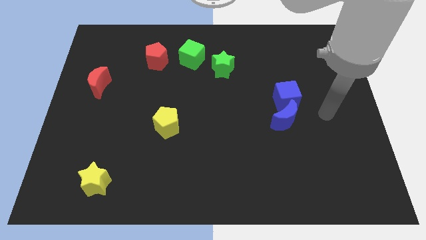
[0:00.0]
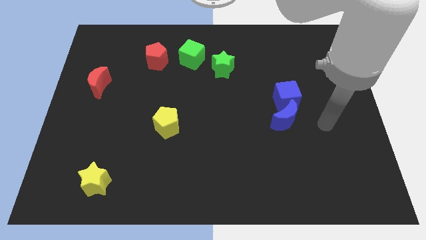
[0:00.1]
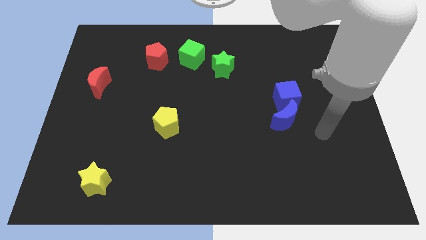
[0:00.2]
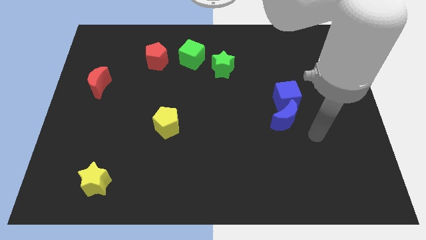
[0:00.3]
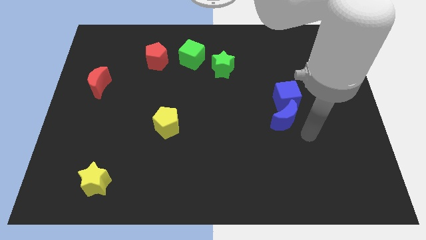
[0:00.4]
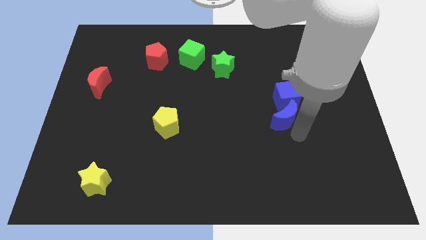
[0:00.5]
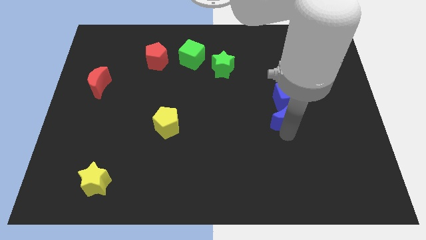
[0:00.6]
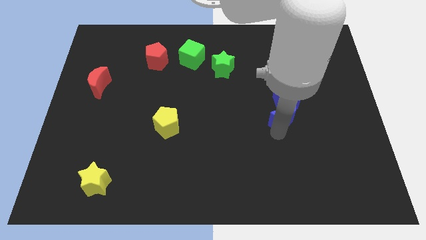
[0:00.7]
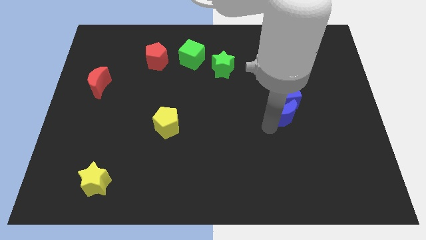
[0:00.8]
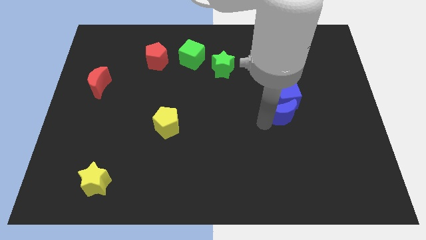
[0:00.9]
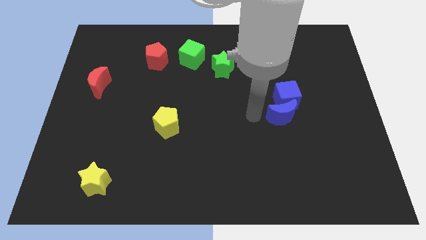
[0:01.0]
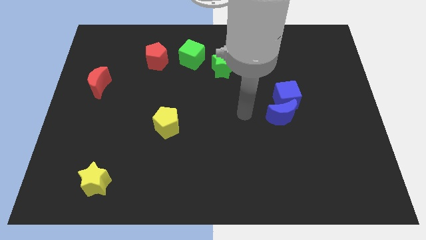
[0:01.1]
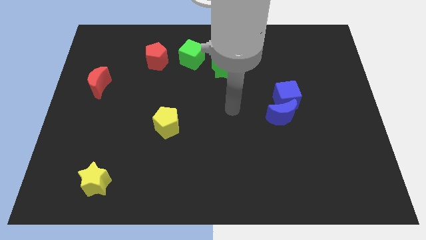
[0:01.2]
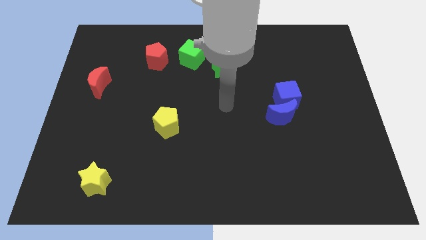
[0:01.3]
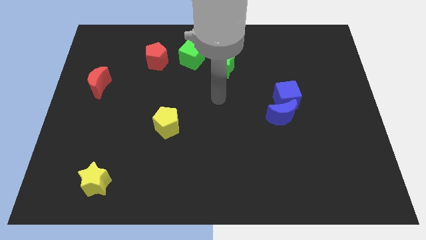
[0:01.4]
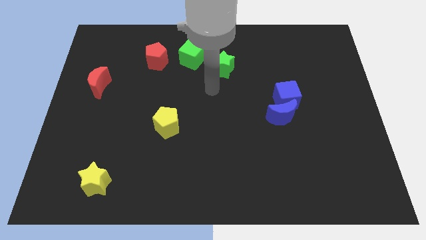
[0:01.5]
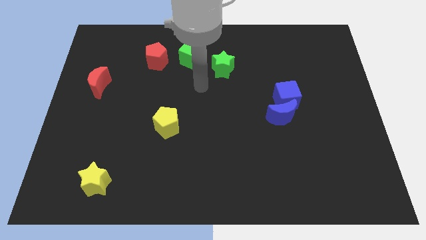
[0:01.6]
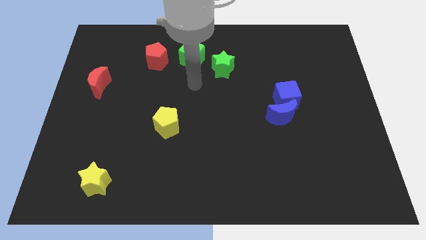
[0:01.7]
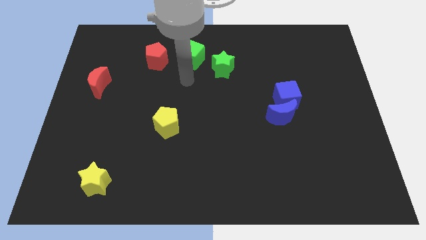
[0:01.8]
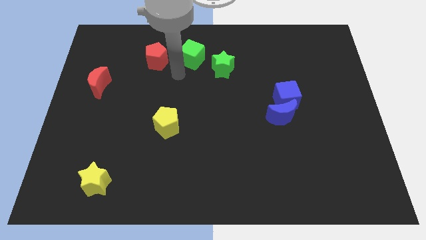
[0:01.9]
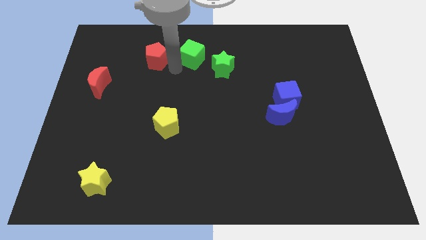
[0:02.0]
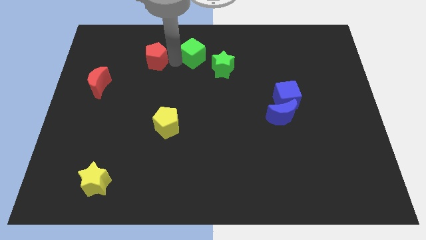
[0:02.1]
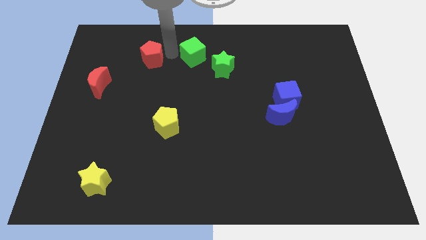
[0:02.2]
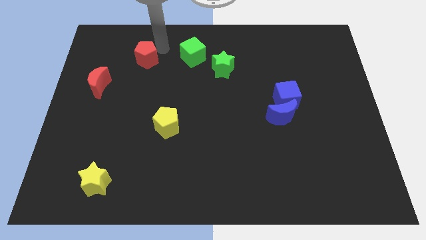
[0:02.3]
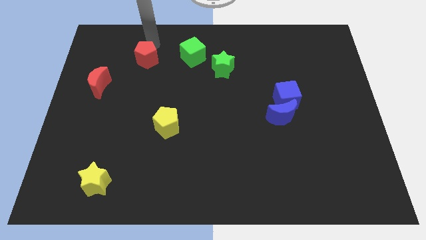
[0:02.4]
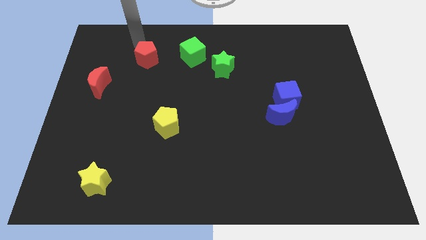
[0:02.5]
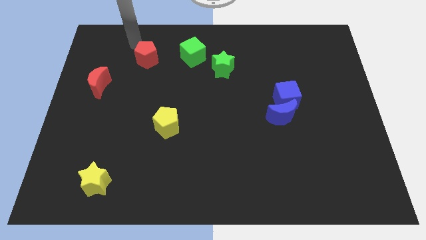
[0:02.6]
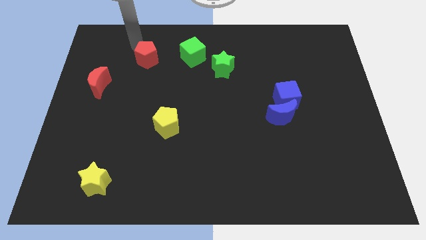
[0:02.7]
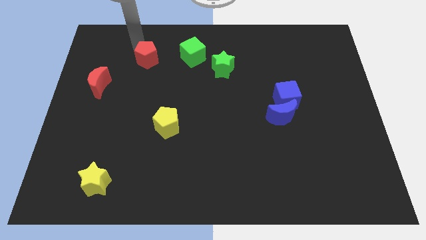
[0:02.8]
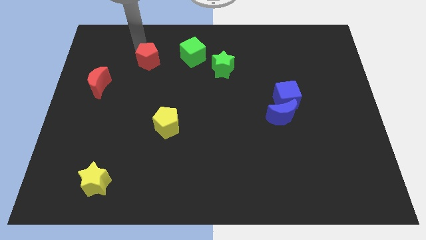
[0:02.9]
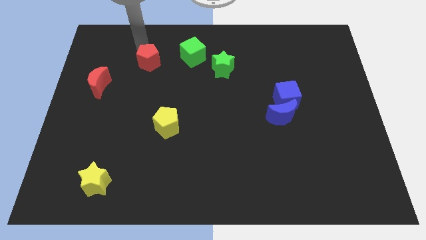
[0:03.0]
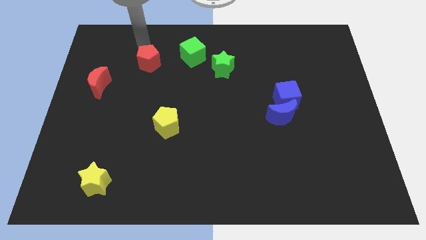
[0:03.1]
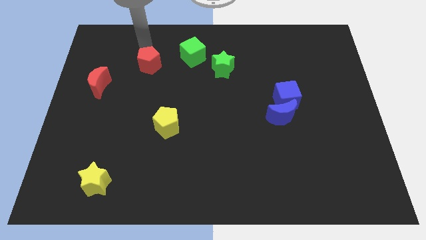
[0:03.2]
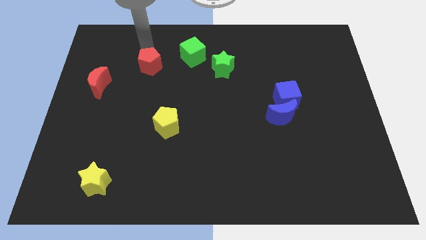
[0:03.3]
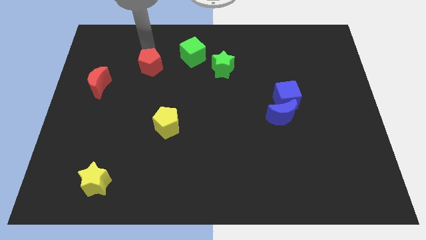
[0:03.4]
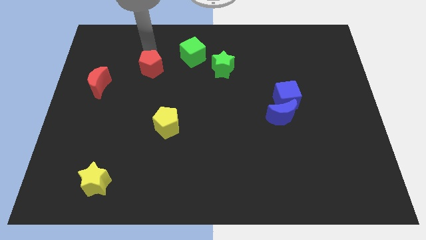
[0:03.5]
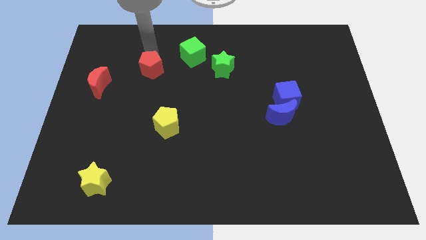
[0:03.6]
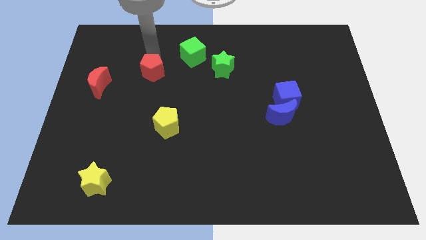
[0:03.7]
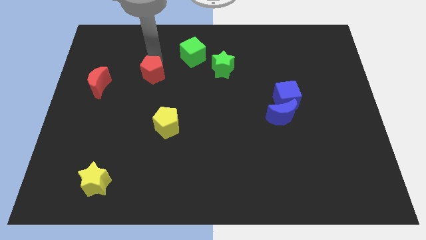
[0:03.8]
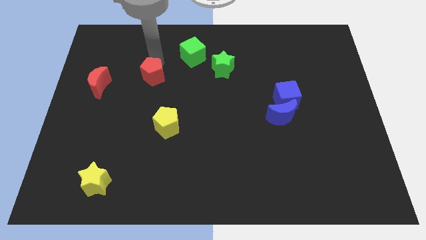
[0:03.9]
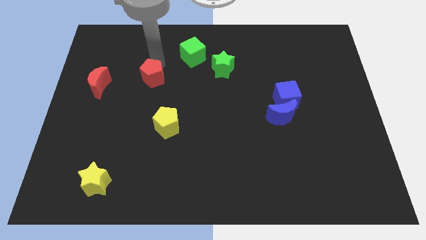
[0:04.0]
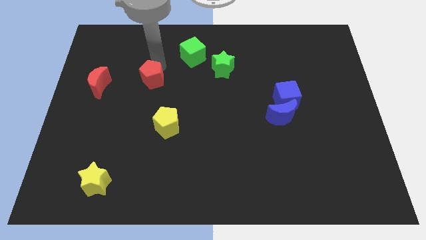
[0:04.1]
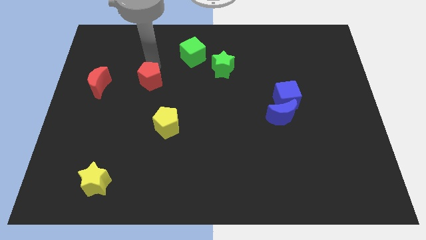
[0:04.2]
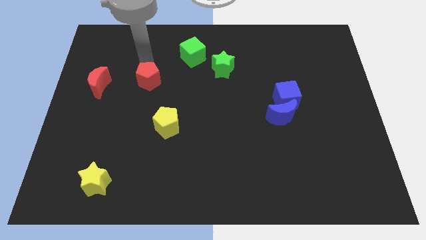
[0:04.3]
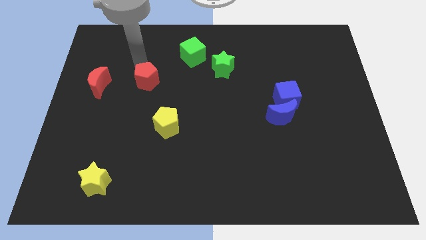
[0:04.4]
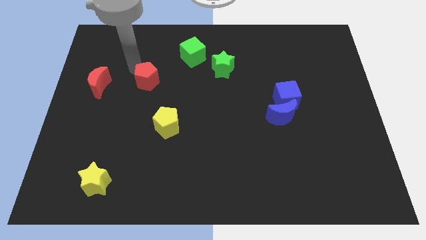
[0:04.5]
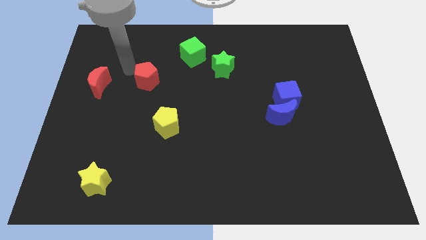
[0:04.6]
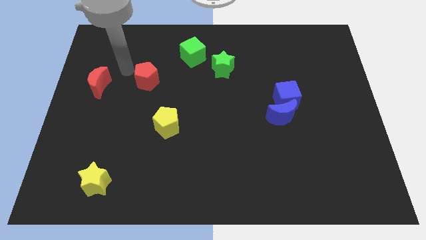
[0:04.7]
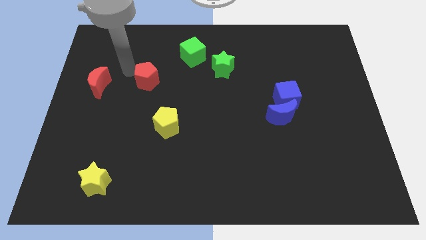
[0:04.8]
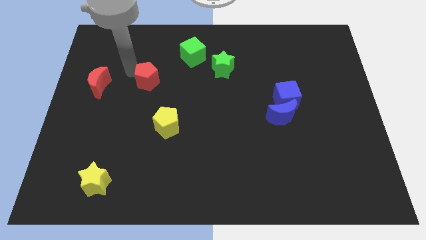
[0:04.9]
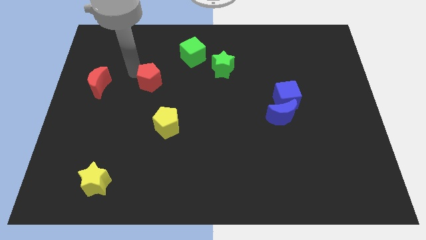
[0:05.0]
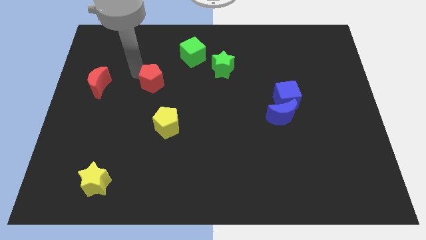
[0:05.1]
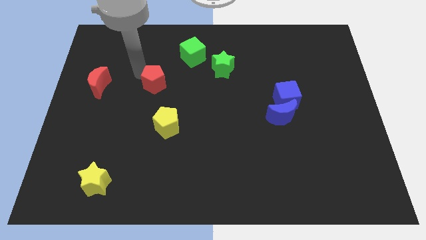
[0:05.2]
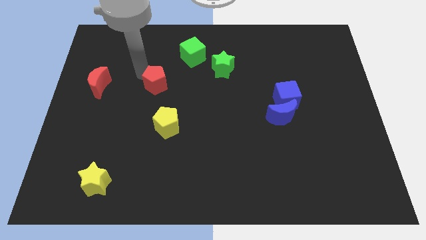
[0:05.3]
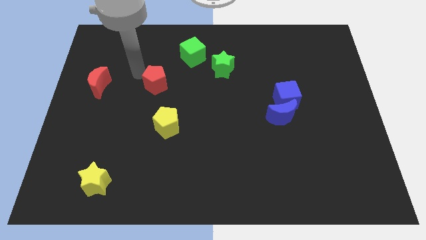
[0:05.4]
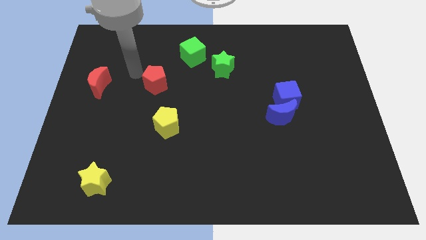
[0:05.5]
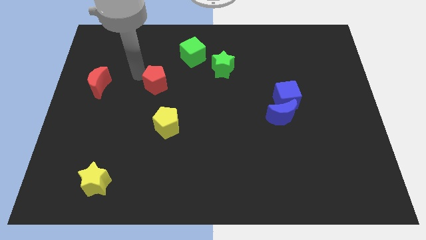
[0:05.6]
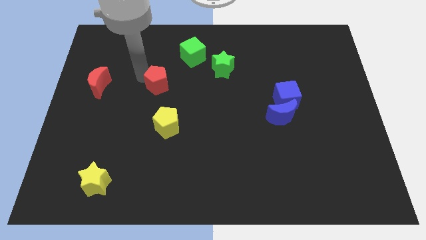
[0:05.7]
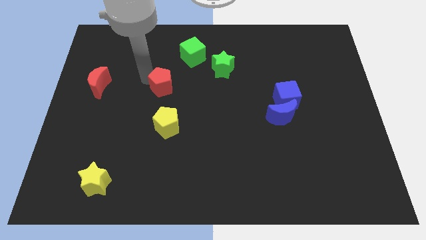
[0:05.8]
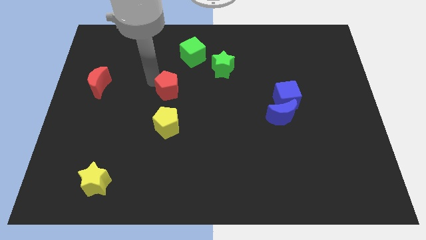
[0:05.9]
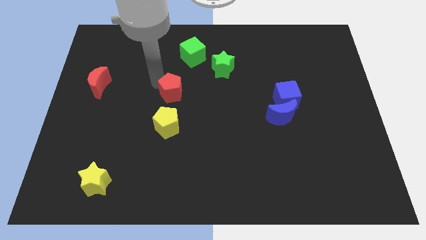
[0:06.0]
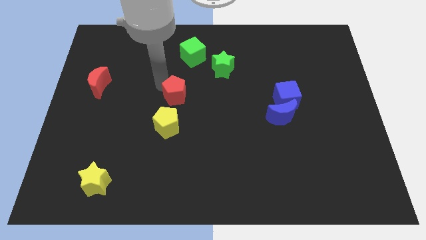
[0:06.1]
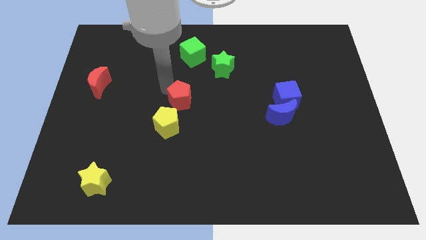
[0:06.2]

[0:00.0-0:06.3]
slide the red pentagon to the top right of the yellow pentagon

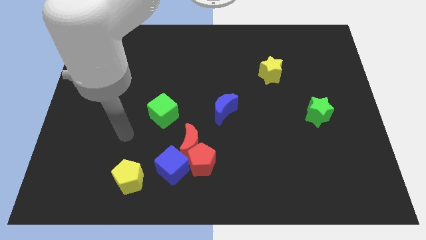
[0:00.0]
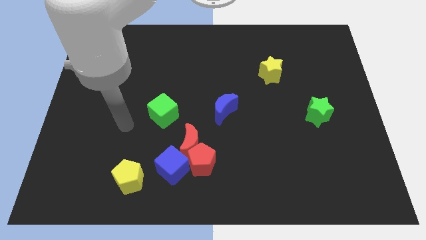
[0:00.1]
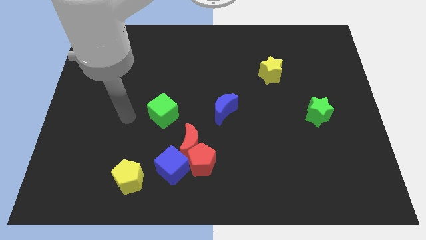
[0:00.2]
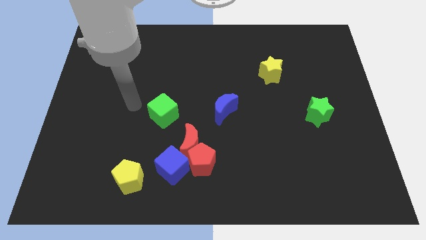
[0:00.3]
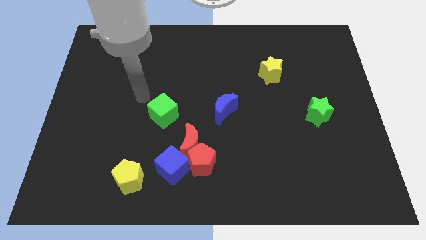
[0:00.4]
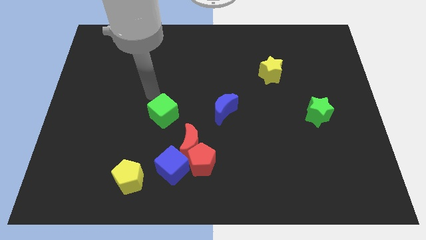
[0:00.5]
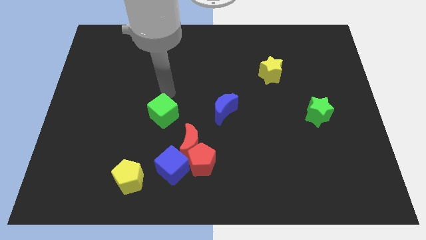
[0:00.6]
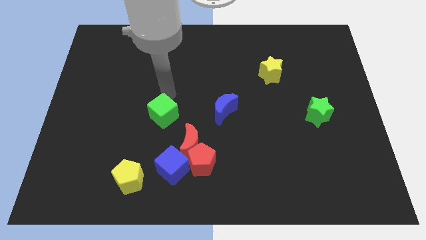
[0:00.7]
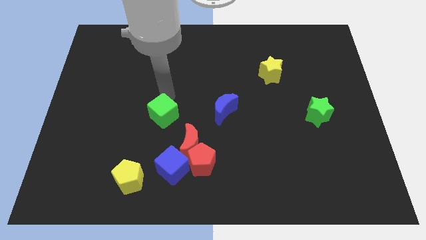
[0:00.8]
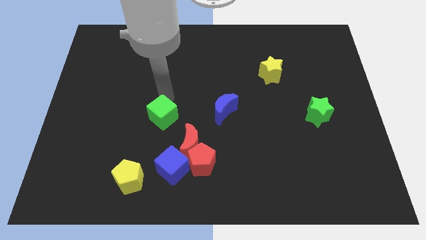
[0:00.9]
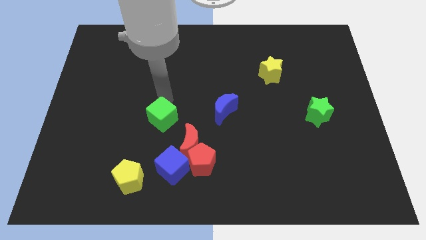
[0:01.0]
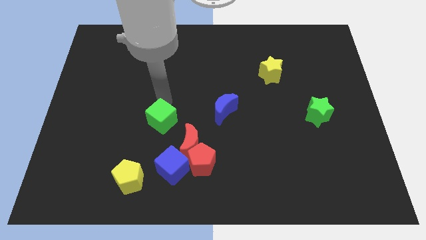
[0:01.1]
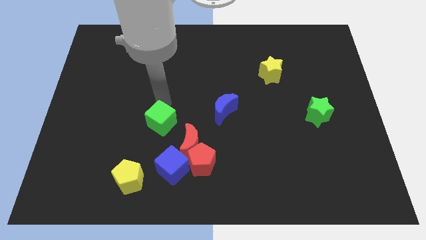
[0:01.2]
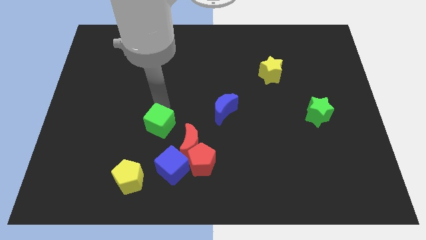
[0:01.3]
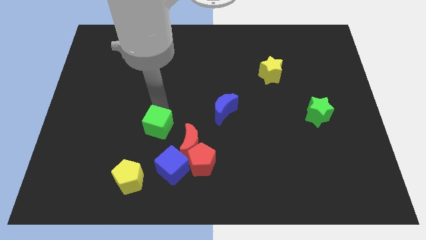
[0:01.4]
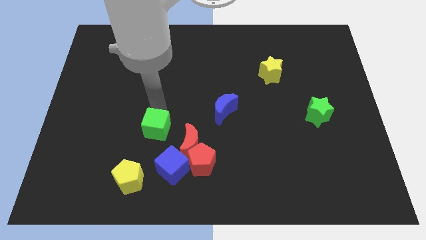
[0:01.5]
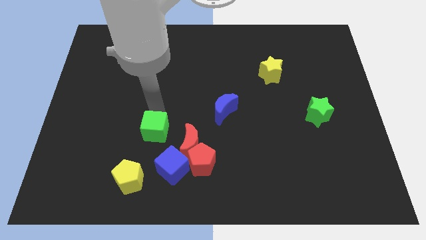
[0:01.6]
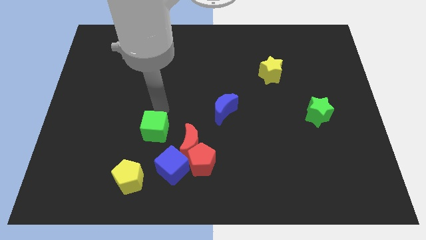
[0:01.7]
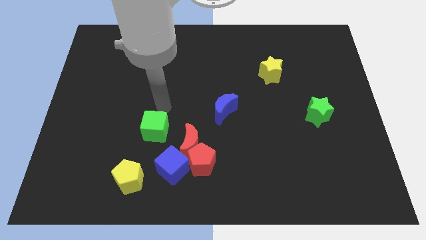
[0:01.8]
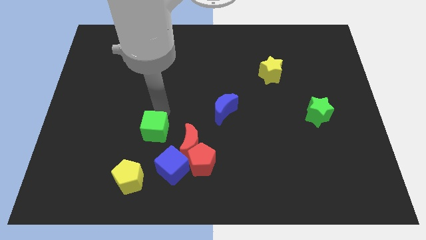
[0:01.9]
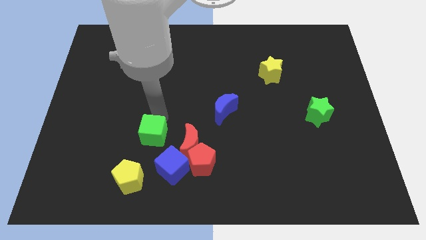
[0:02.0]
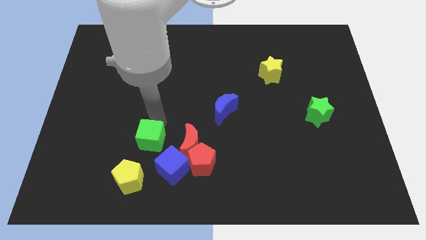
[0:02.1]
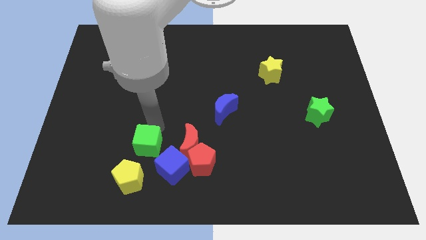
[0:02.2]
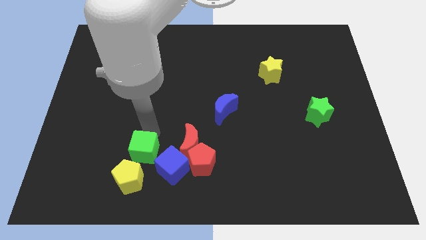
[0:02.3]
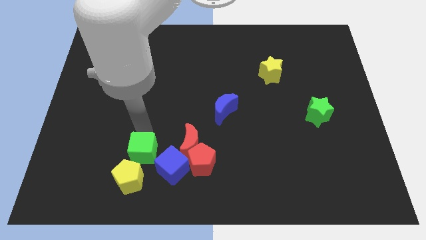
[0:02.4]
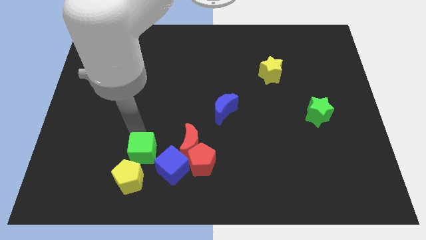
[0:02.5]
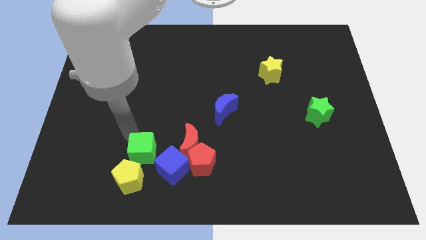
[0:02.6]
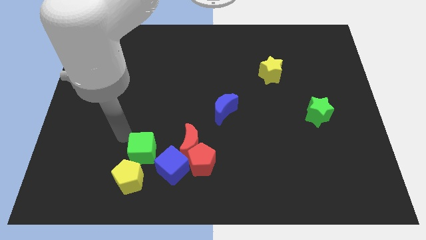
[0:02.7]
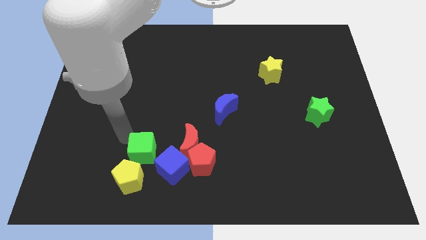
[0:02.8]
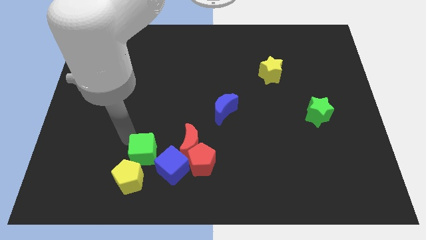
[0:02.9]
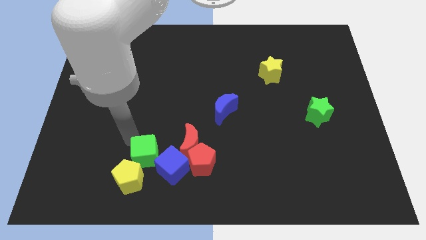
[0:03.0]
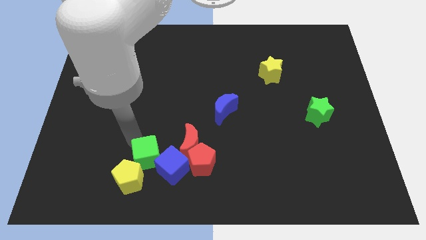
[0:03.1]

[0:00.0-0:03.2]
put the green cube diagonally down and to the left of the red moon
